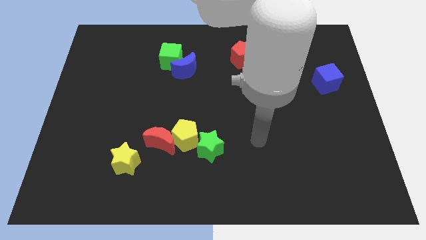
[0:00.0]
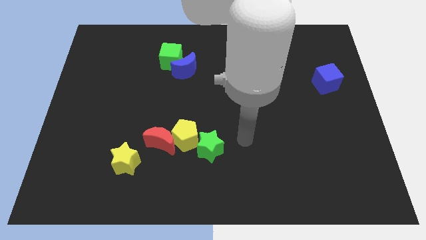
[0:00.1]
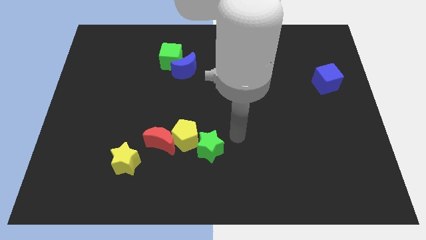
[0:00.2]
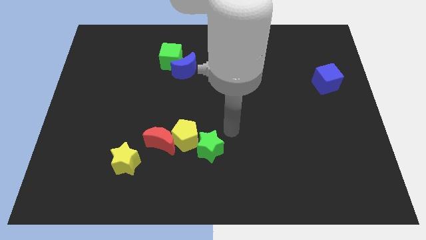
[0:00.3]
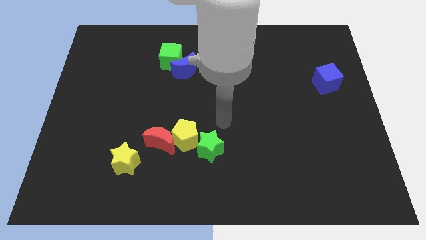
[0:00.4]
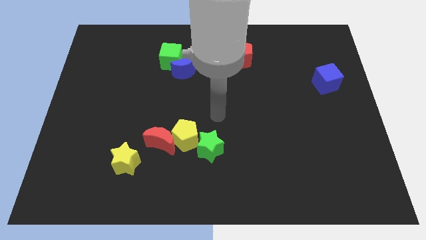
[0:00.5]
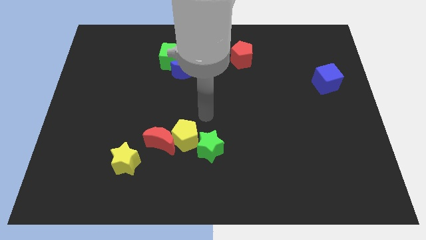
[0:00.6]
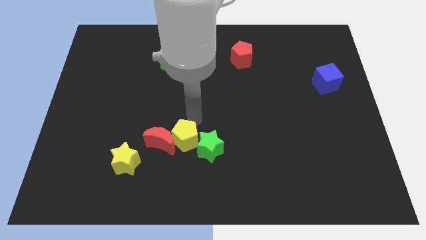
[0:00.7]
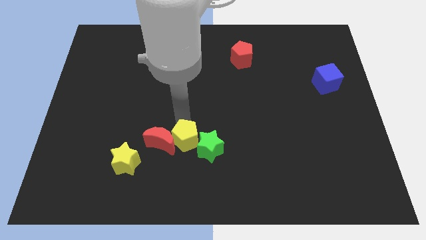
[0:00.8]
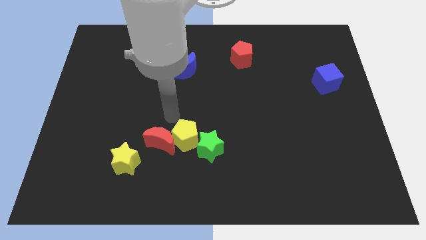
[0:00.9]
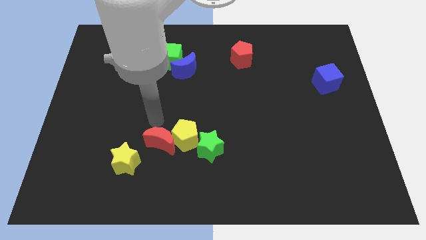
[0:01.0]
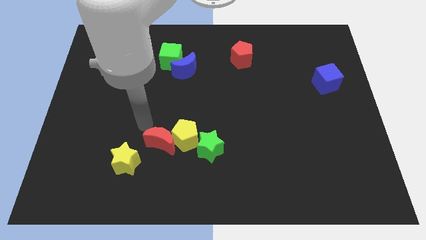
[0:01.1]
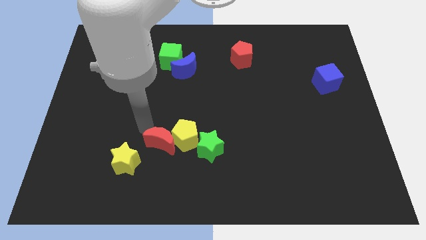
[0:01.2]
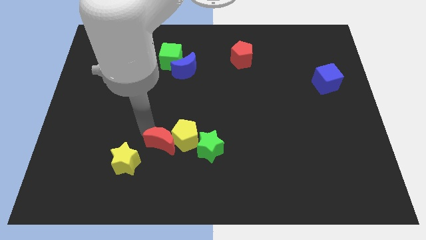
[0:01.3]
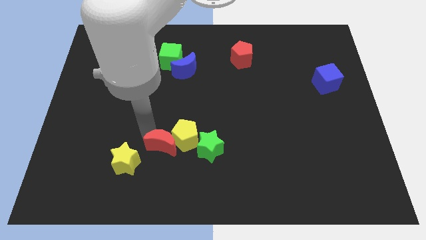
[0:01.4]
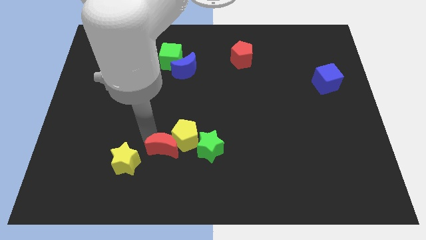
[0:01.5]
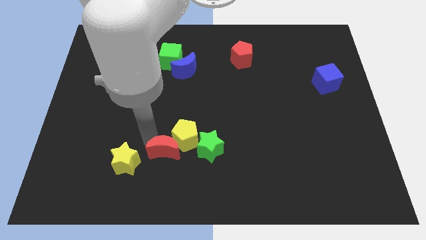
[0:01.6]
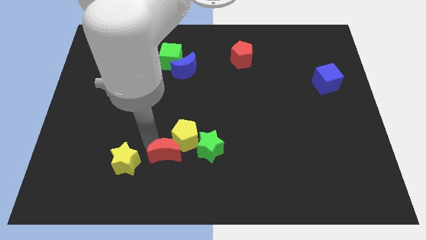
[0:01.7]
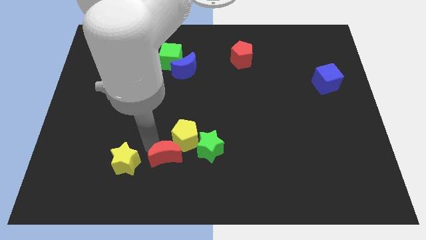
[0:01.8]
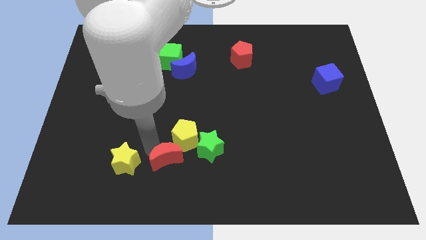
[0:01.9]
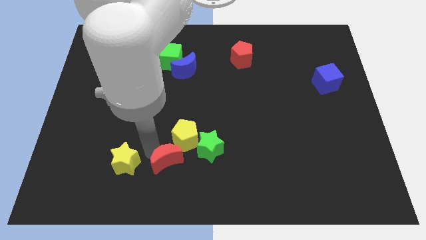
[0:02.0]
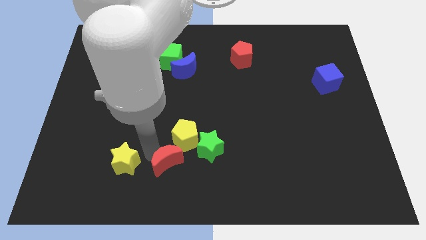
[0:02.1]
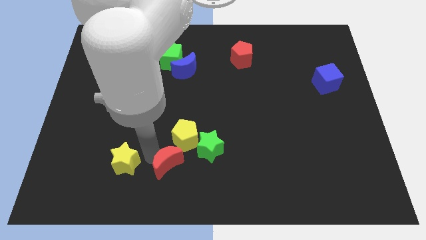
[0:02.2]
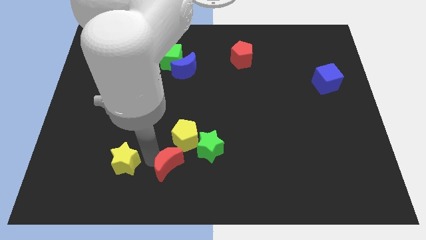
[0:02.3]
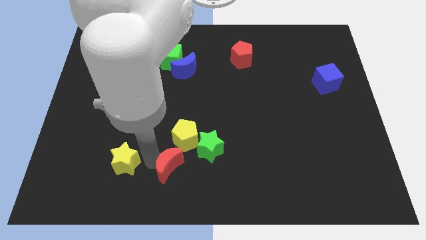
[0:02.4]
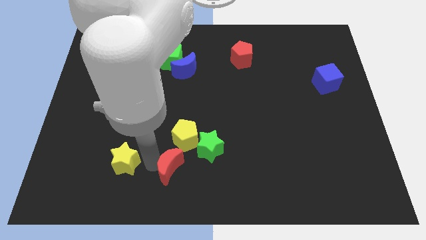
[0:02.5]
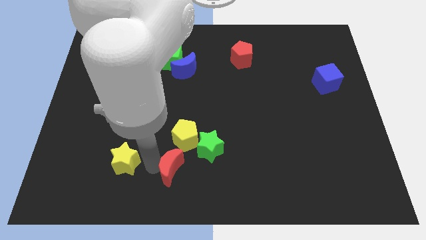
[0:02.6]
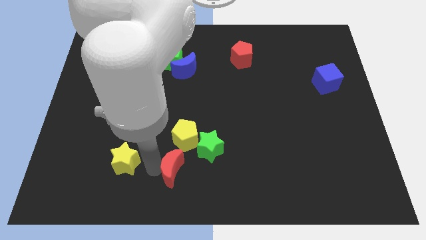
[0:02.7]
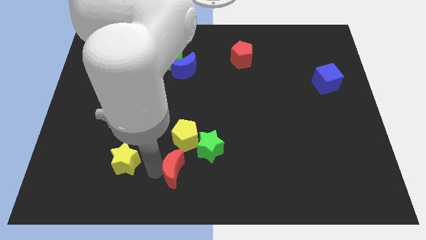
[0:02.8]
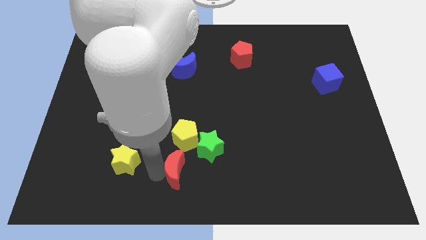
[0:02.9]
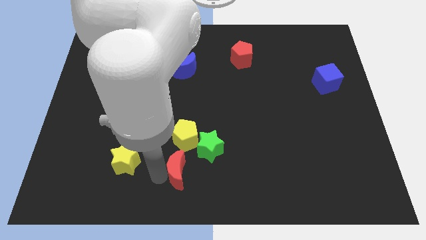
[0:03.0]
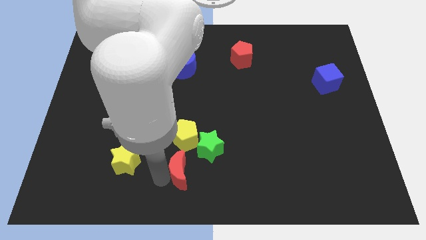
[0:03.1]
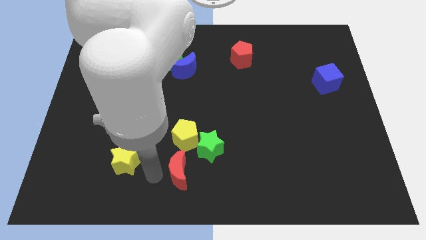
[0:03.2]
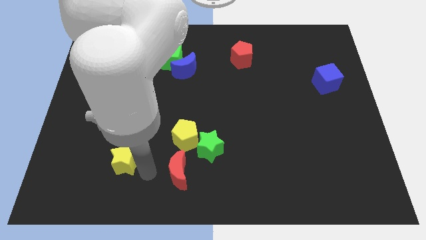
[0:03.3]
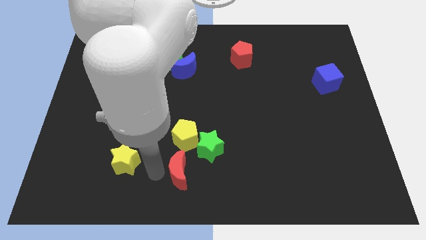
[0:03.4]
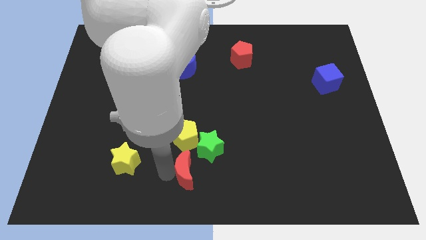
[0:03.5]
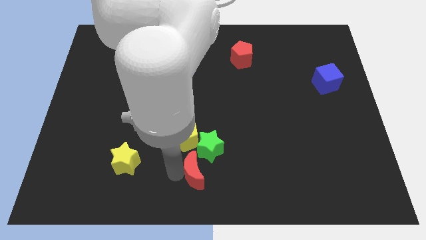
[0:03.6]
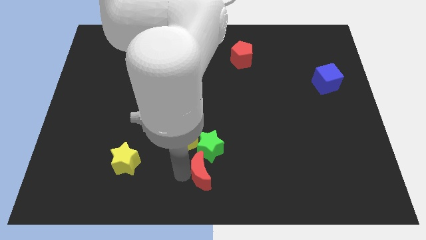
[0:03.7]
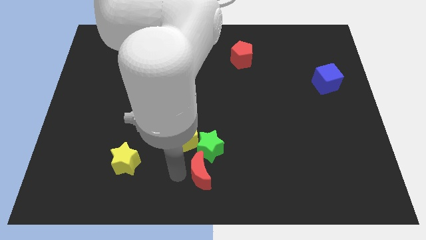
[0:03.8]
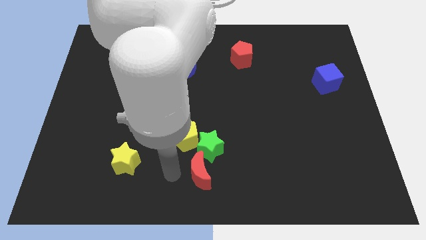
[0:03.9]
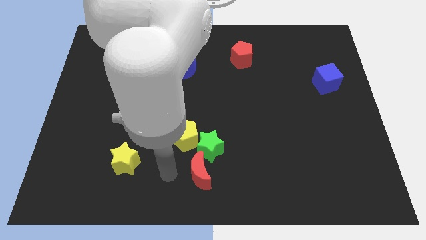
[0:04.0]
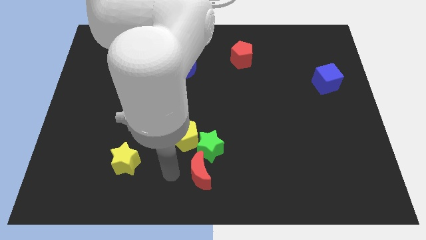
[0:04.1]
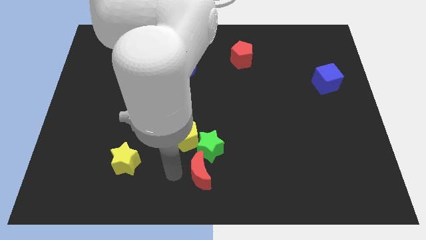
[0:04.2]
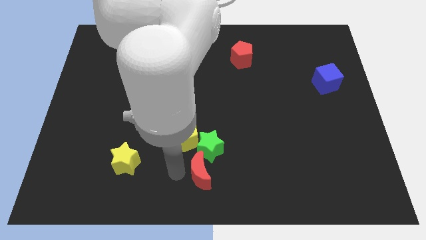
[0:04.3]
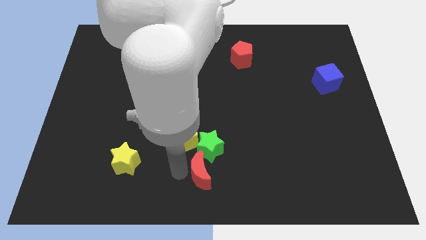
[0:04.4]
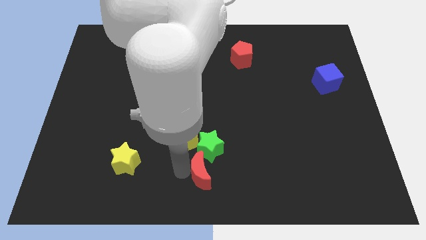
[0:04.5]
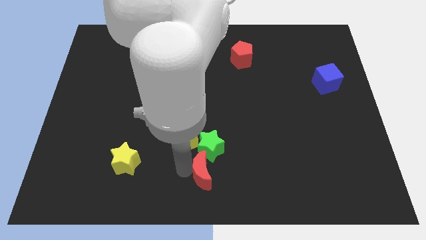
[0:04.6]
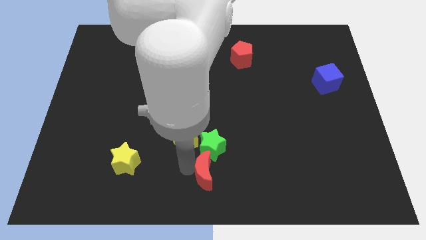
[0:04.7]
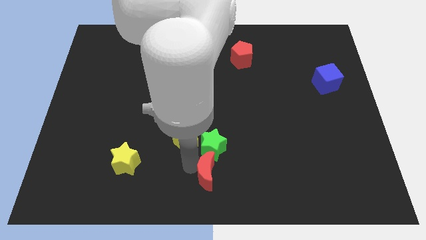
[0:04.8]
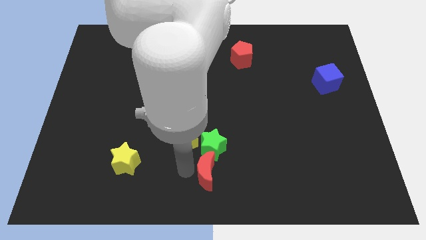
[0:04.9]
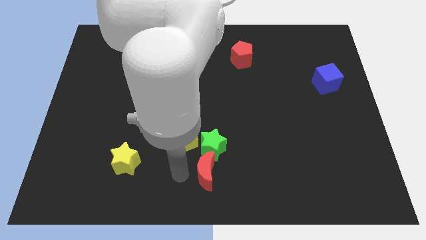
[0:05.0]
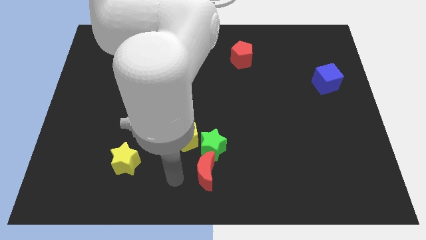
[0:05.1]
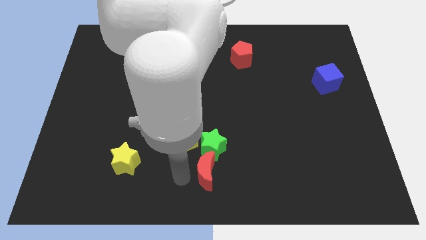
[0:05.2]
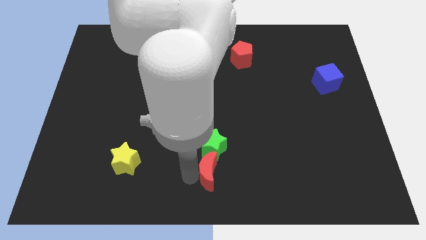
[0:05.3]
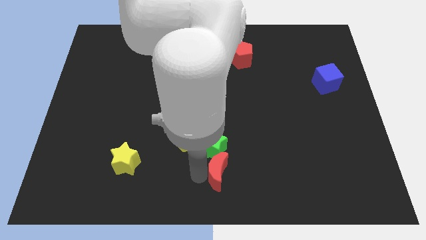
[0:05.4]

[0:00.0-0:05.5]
push the red moon diagonally down and to the right of the green star

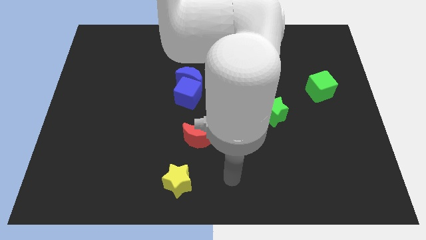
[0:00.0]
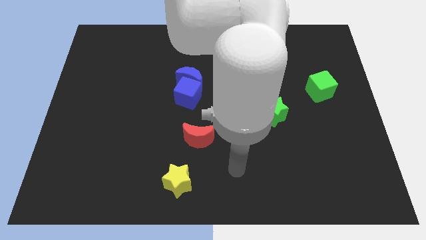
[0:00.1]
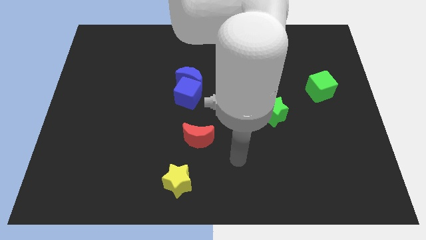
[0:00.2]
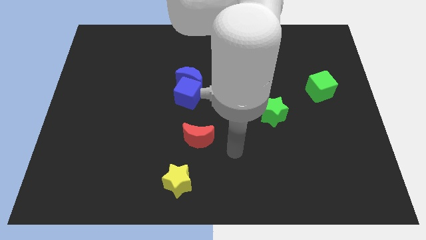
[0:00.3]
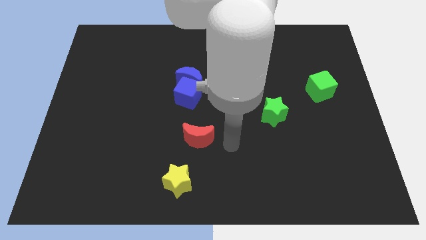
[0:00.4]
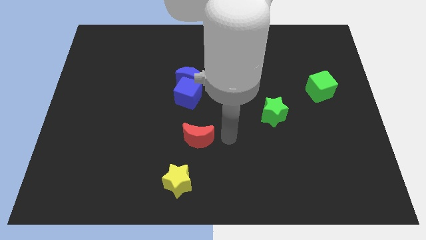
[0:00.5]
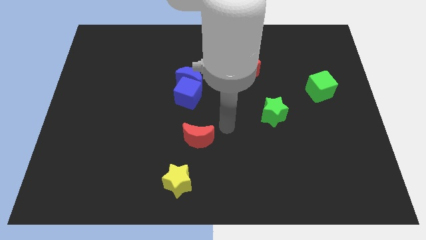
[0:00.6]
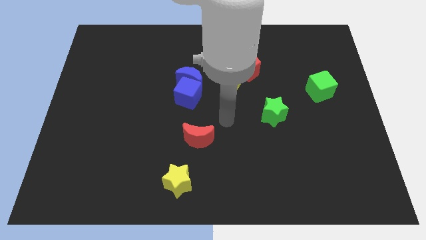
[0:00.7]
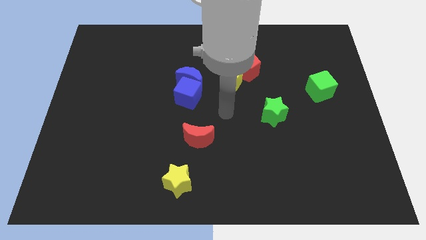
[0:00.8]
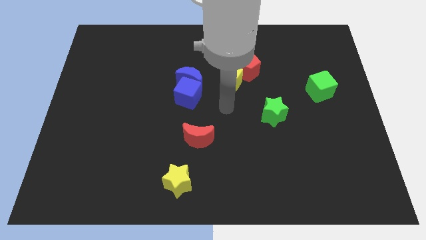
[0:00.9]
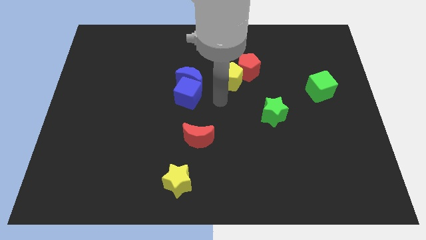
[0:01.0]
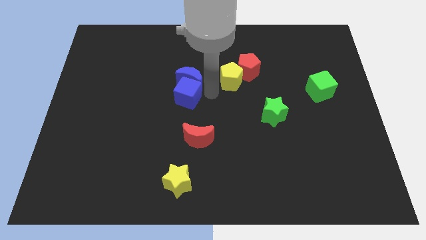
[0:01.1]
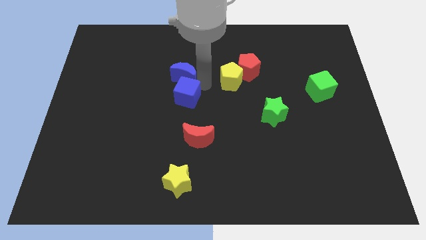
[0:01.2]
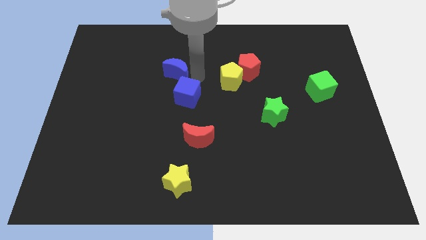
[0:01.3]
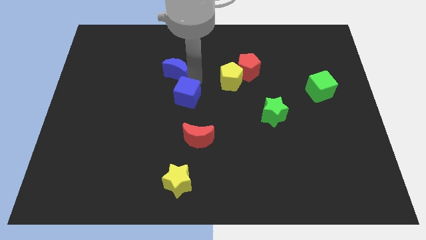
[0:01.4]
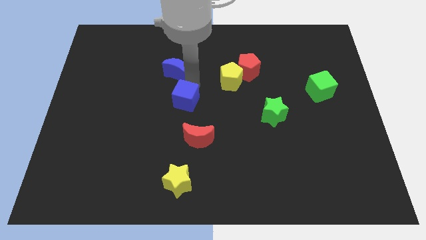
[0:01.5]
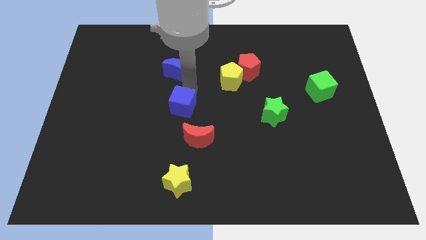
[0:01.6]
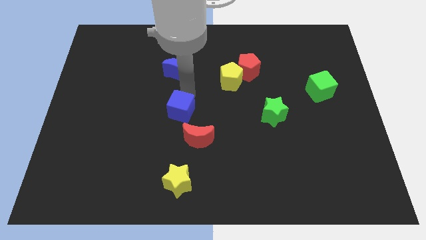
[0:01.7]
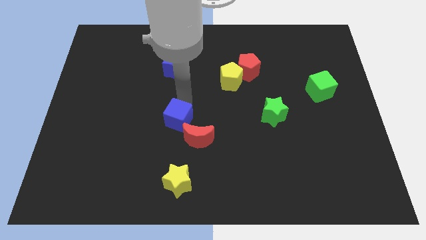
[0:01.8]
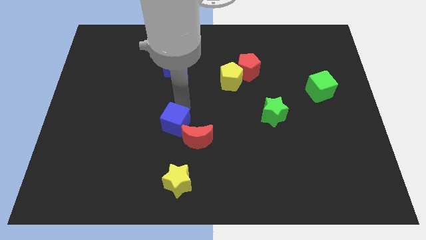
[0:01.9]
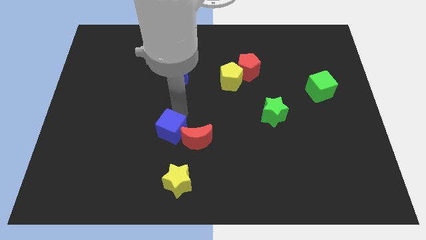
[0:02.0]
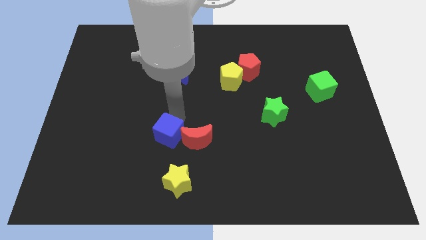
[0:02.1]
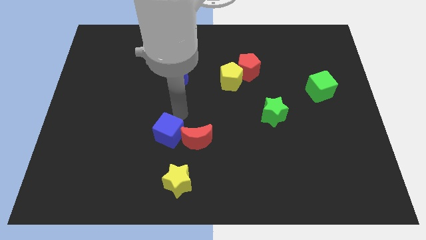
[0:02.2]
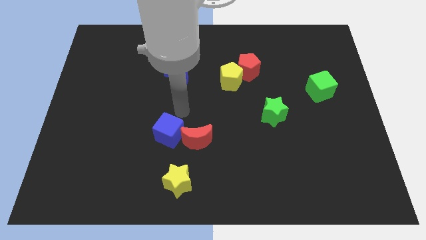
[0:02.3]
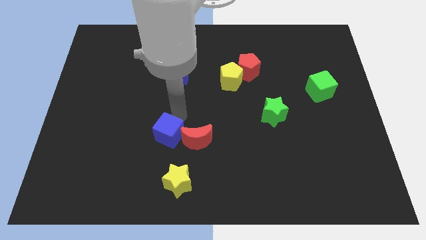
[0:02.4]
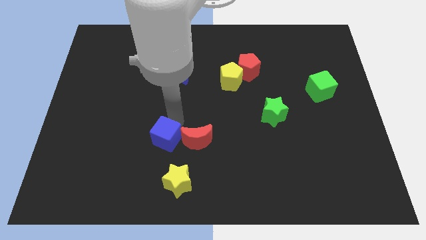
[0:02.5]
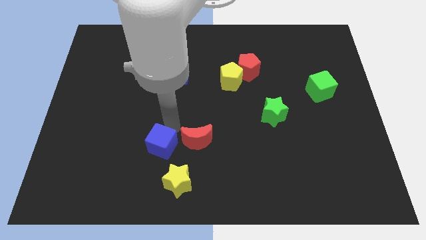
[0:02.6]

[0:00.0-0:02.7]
move the blue cube diagonally up and to the left of the yellow star
